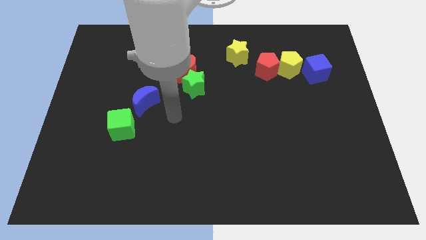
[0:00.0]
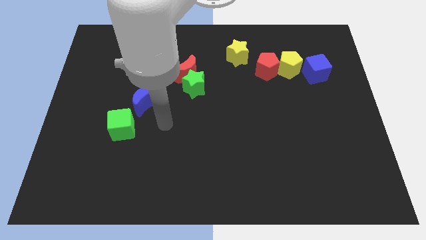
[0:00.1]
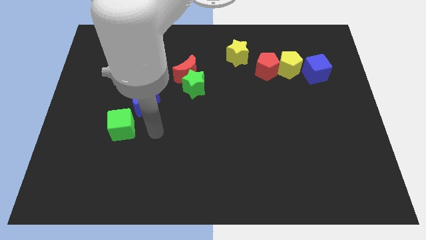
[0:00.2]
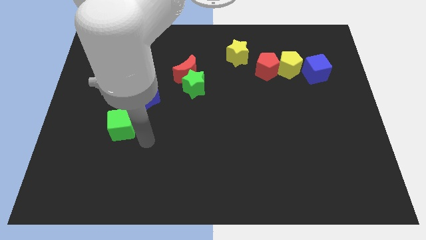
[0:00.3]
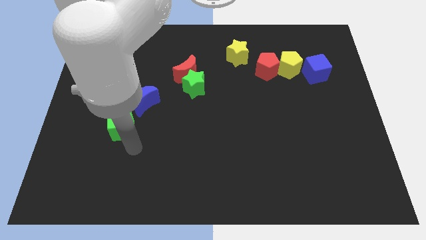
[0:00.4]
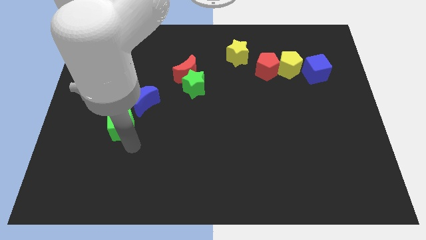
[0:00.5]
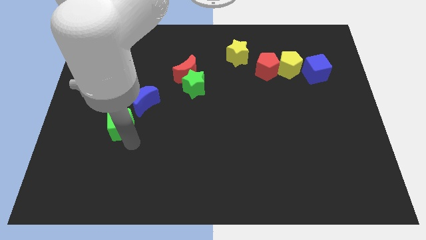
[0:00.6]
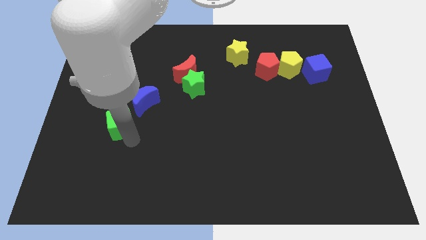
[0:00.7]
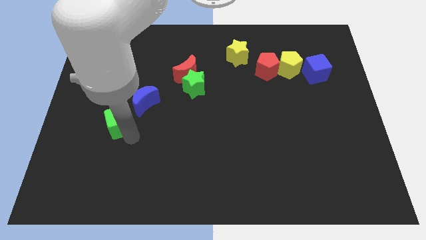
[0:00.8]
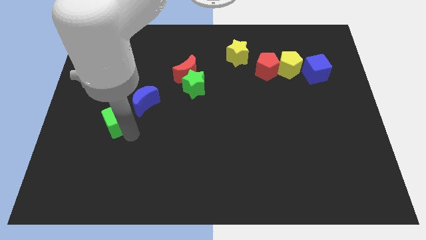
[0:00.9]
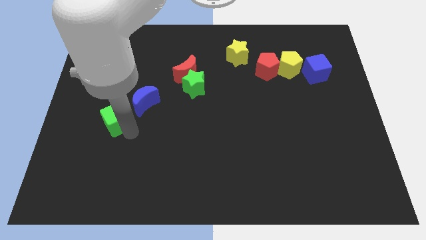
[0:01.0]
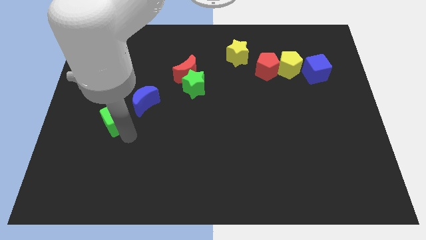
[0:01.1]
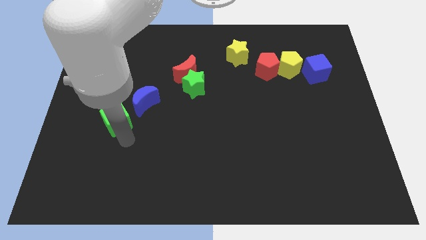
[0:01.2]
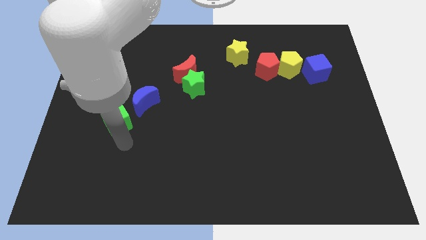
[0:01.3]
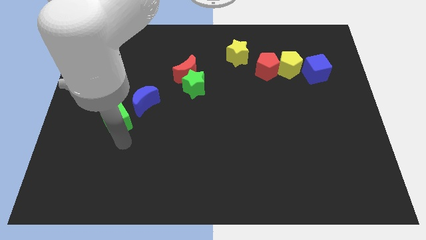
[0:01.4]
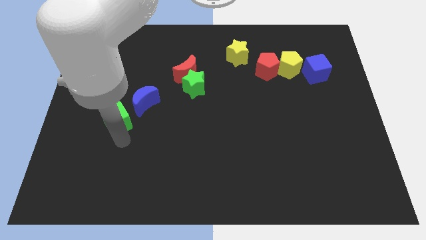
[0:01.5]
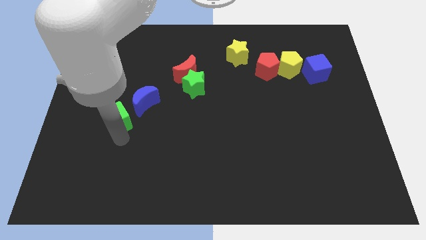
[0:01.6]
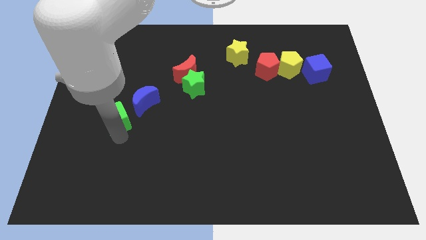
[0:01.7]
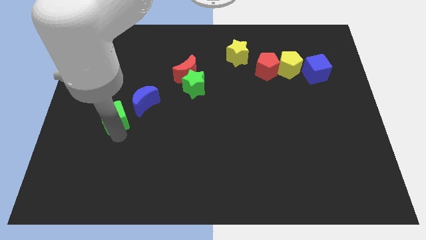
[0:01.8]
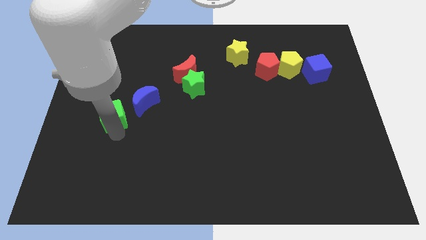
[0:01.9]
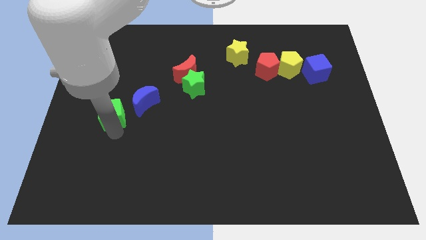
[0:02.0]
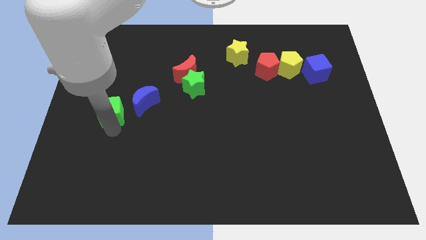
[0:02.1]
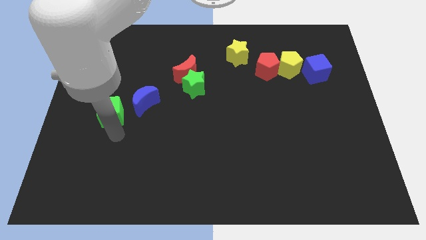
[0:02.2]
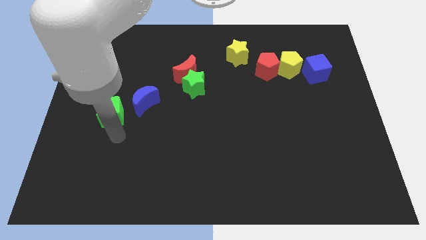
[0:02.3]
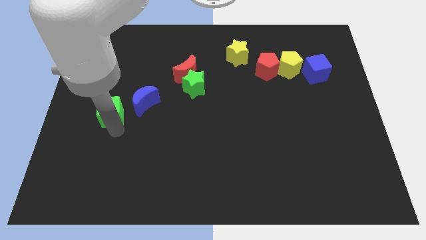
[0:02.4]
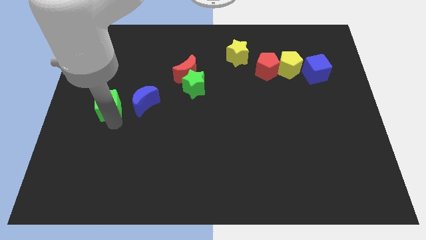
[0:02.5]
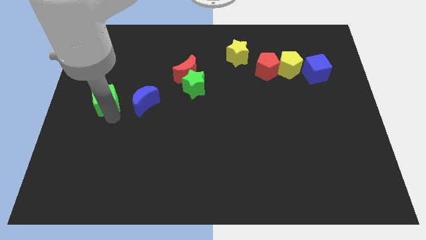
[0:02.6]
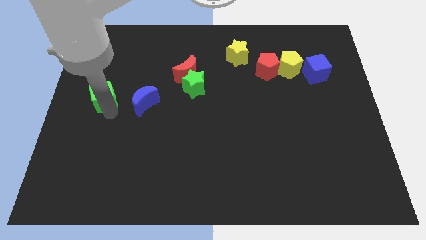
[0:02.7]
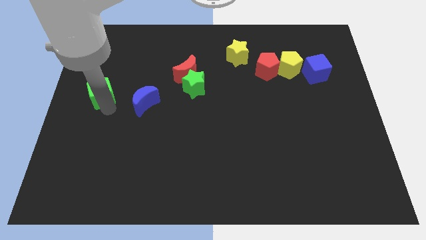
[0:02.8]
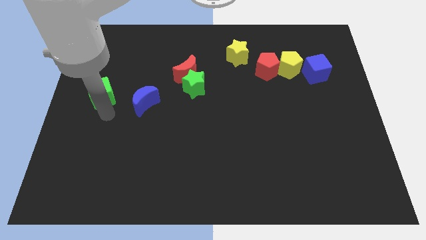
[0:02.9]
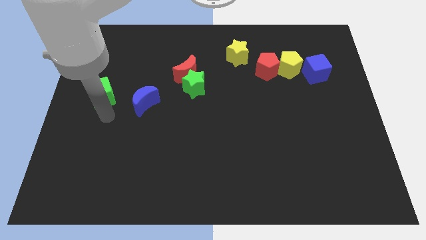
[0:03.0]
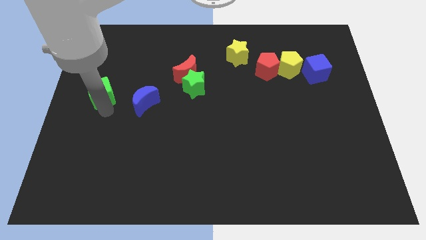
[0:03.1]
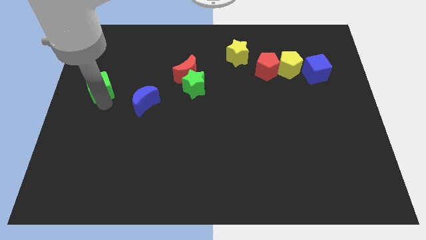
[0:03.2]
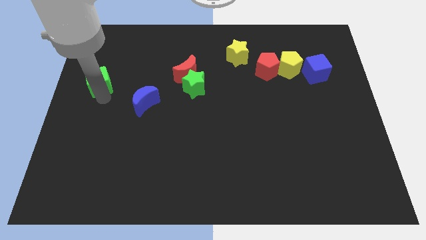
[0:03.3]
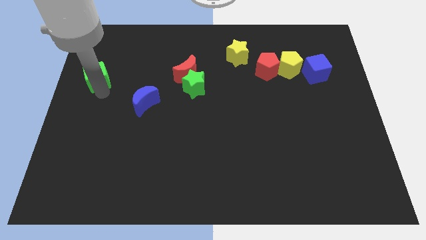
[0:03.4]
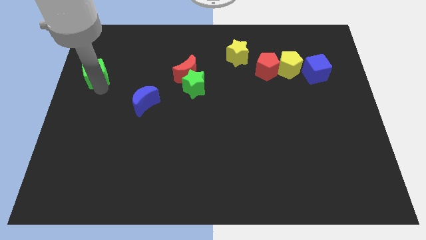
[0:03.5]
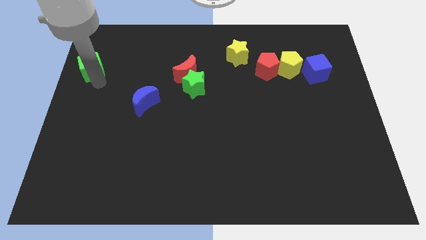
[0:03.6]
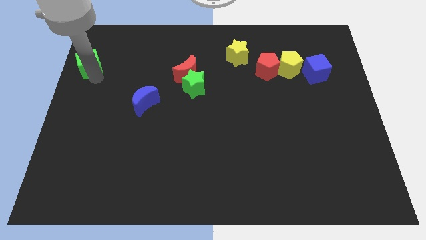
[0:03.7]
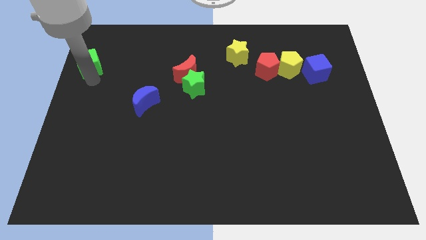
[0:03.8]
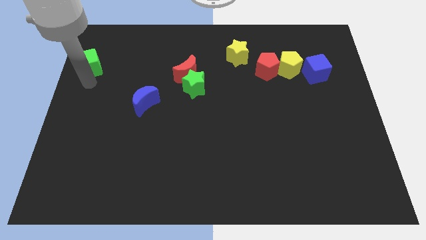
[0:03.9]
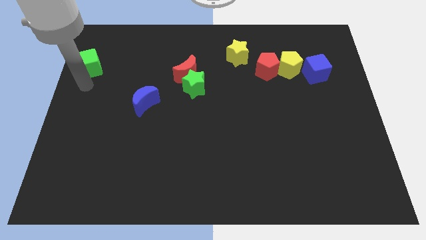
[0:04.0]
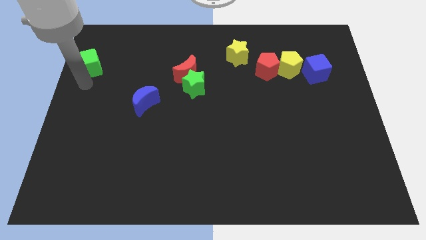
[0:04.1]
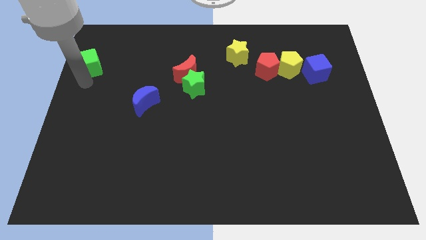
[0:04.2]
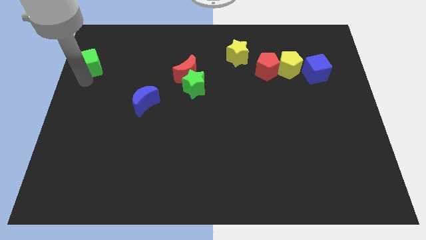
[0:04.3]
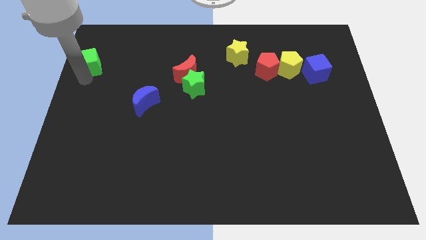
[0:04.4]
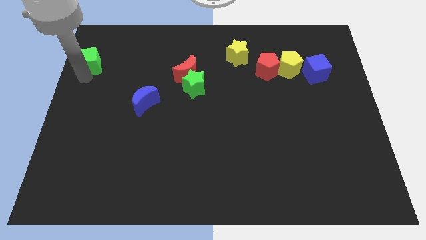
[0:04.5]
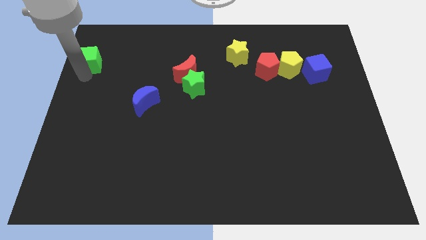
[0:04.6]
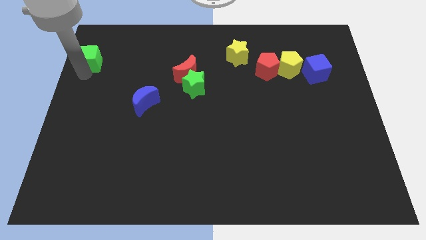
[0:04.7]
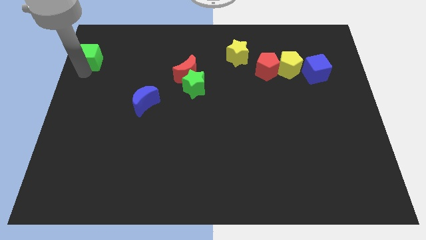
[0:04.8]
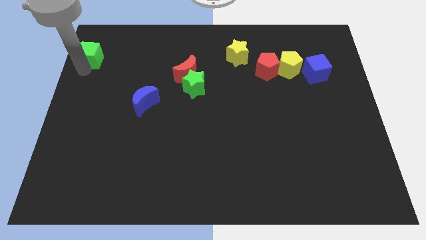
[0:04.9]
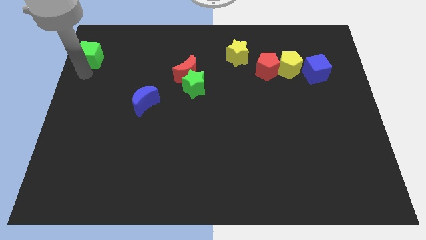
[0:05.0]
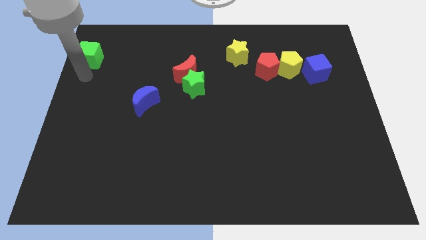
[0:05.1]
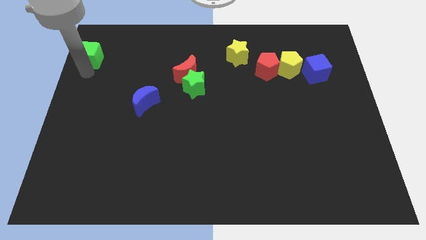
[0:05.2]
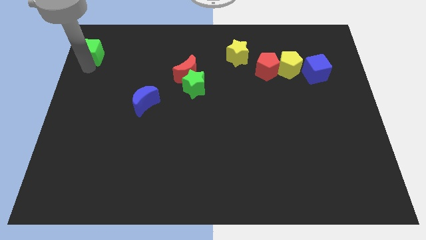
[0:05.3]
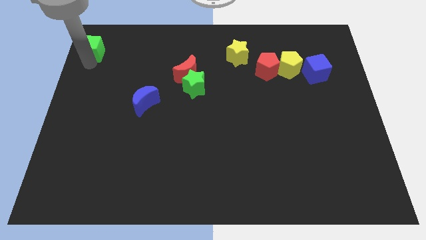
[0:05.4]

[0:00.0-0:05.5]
put the green cube to the upper left corner

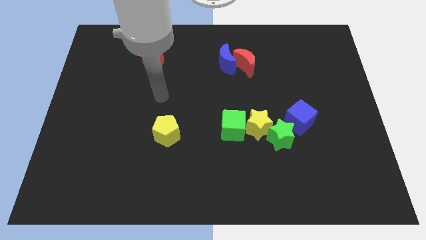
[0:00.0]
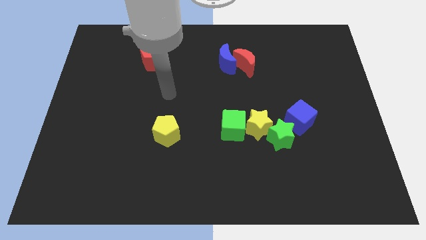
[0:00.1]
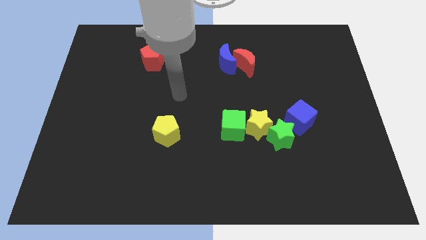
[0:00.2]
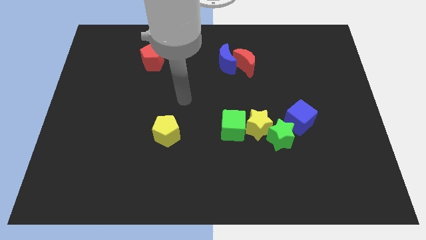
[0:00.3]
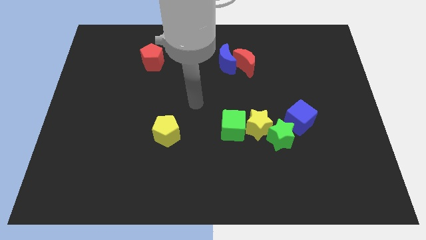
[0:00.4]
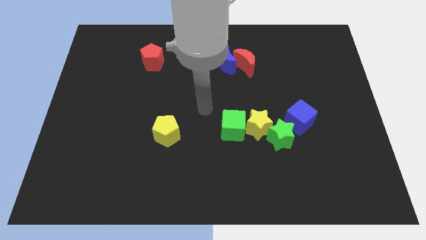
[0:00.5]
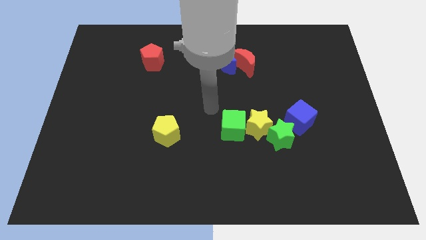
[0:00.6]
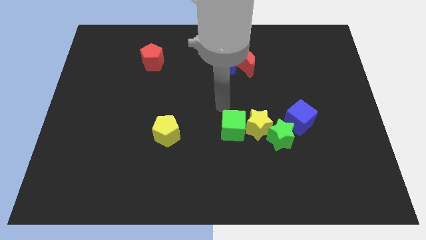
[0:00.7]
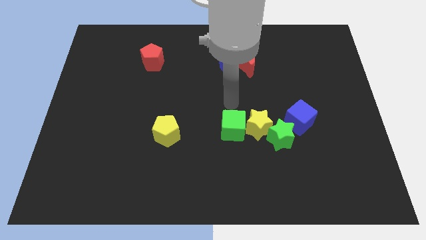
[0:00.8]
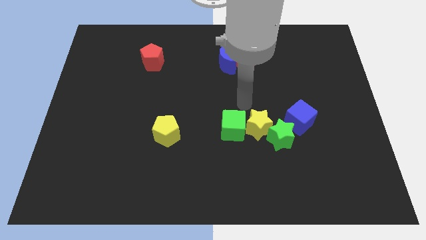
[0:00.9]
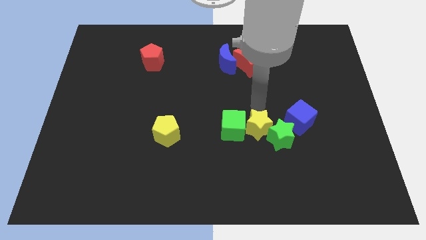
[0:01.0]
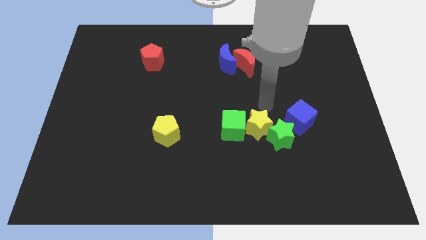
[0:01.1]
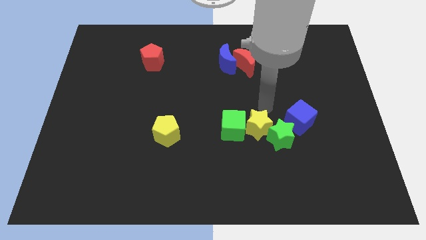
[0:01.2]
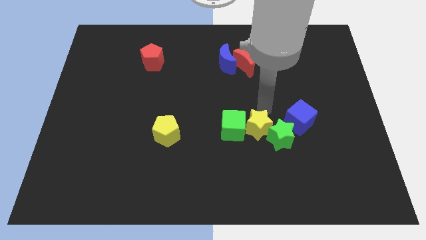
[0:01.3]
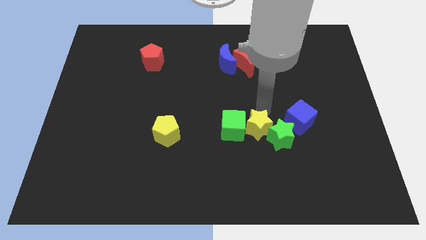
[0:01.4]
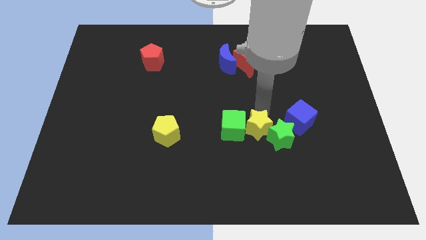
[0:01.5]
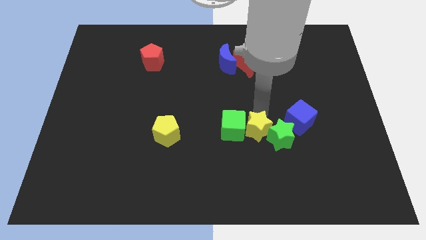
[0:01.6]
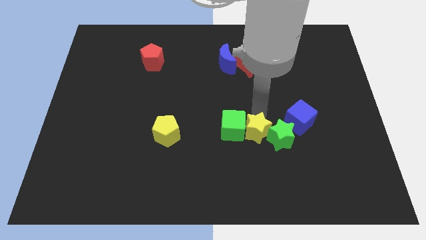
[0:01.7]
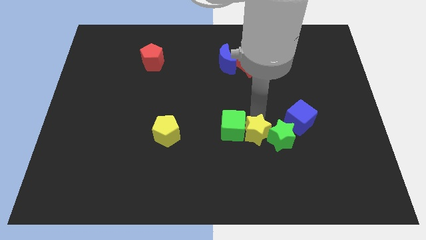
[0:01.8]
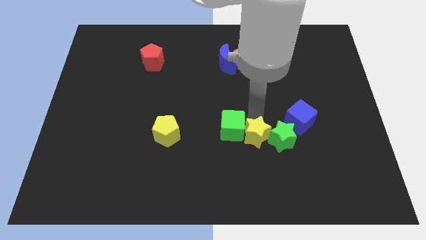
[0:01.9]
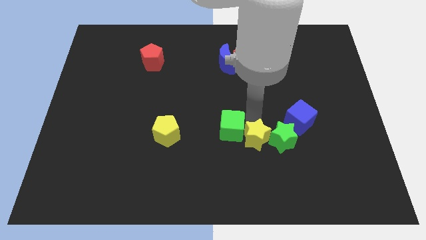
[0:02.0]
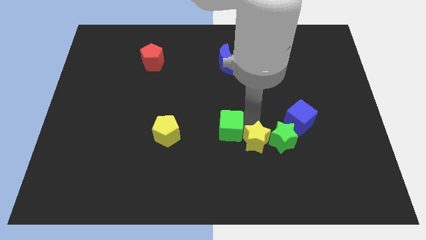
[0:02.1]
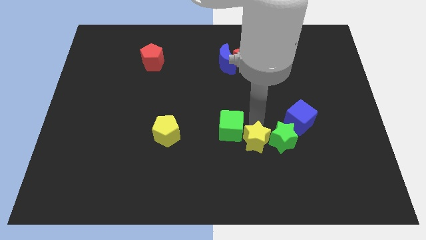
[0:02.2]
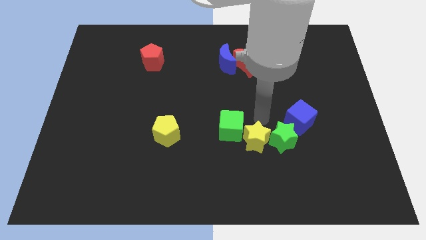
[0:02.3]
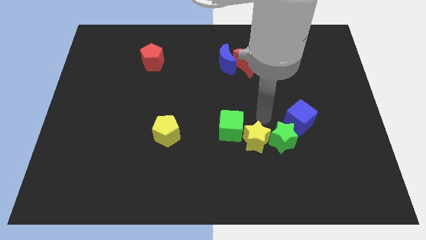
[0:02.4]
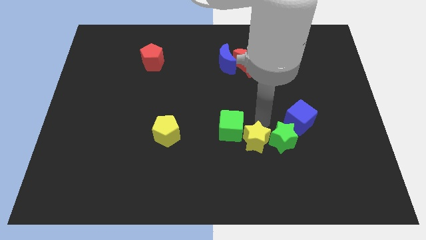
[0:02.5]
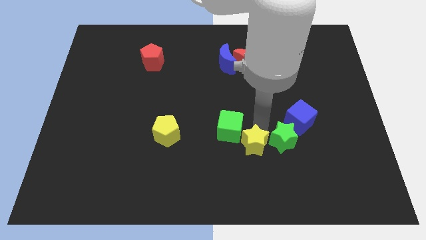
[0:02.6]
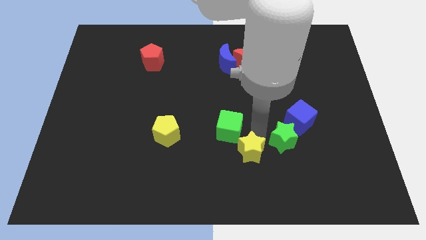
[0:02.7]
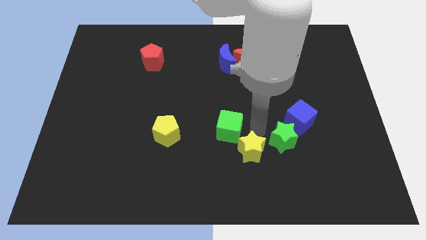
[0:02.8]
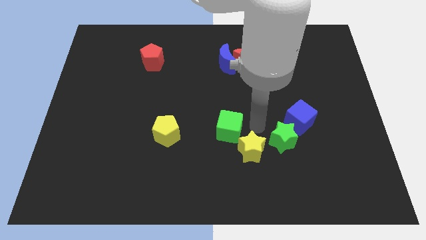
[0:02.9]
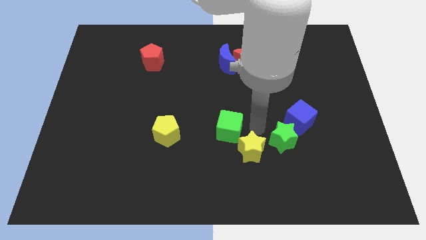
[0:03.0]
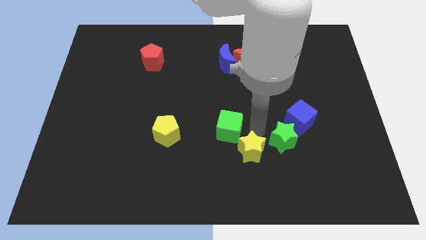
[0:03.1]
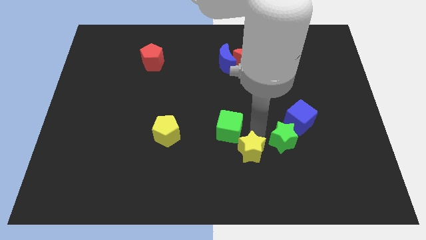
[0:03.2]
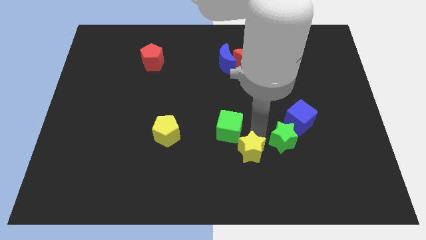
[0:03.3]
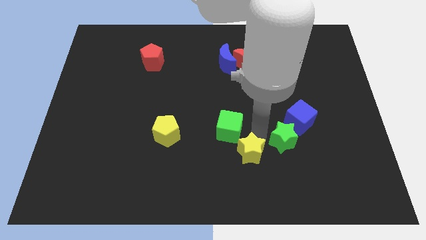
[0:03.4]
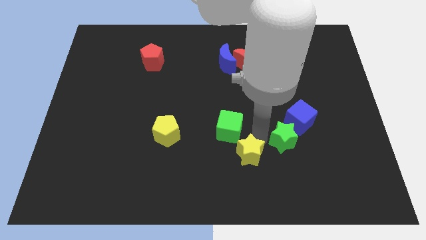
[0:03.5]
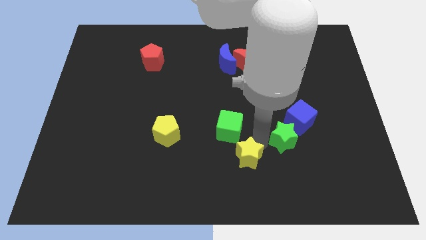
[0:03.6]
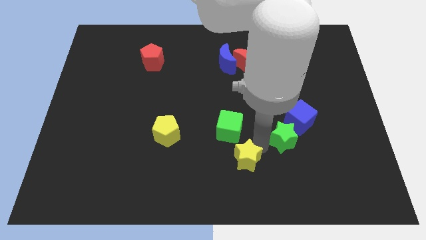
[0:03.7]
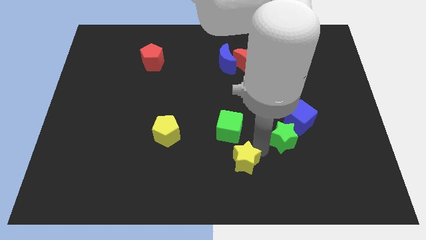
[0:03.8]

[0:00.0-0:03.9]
put the yellow star to the bottom
